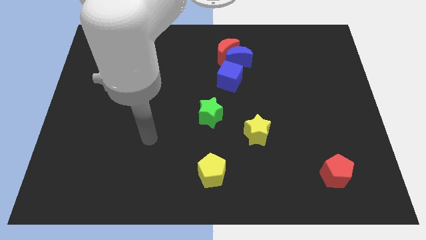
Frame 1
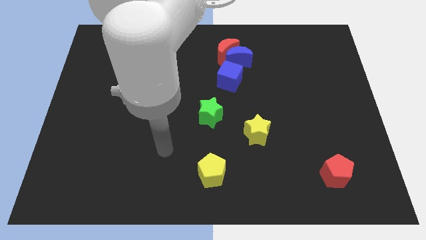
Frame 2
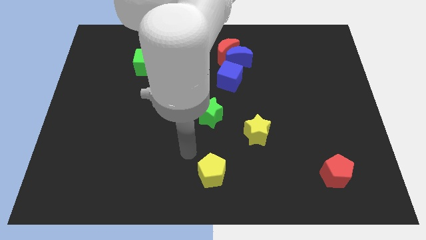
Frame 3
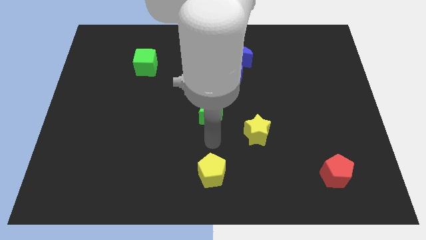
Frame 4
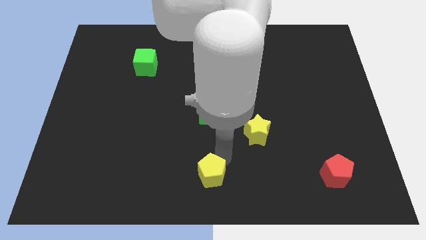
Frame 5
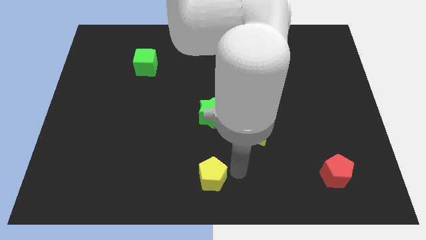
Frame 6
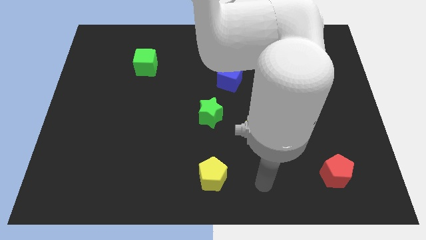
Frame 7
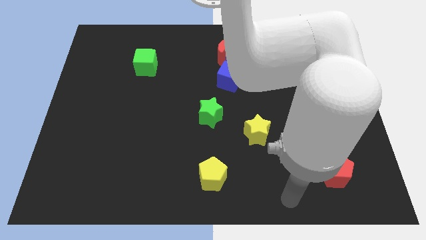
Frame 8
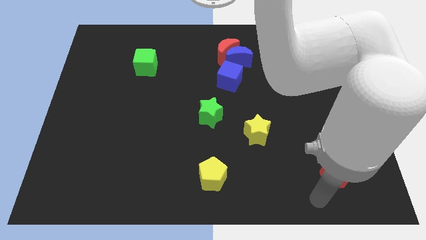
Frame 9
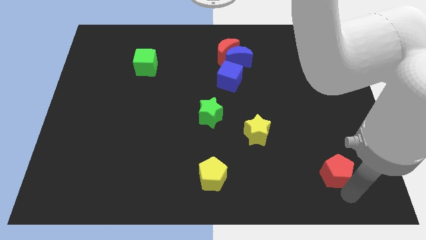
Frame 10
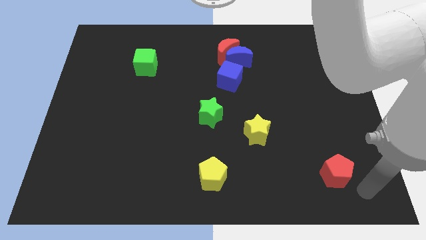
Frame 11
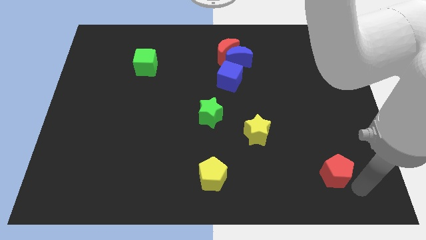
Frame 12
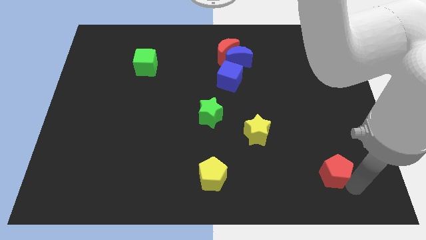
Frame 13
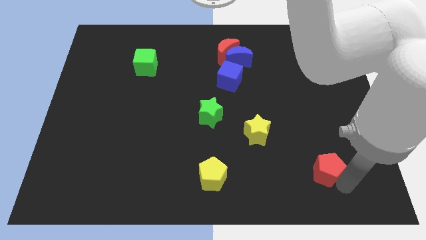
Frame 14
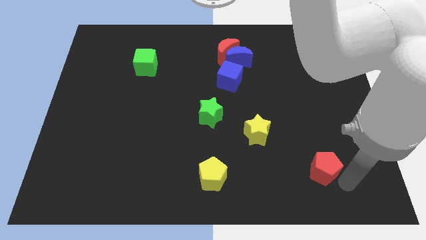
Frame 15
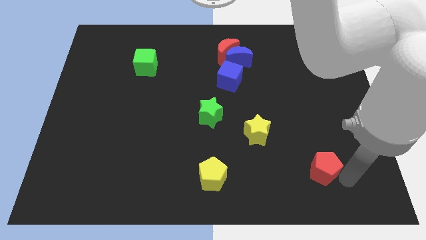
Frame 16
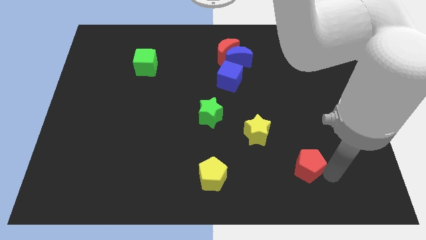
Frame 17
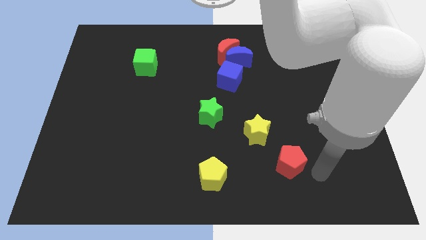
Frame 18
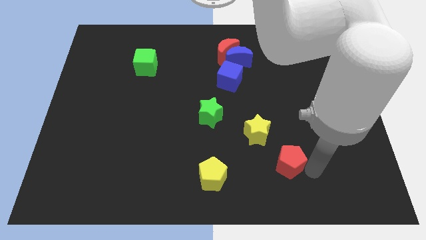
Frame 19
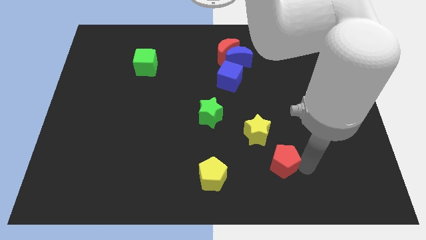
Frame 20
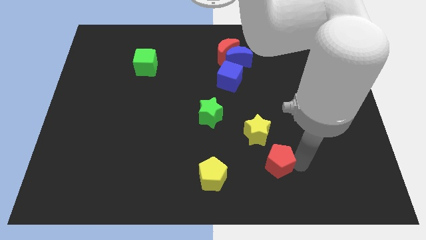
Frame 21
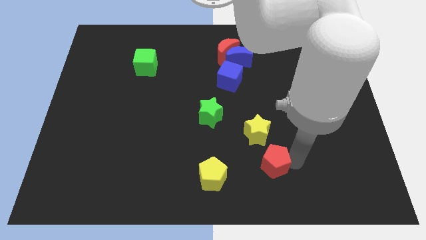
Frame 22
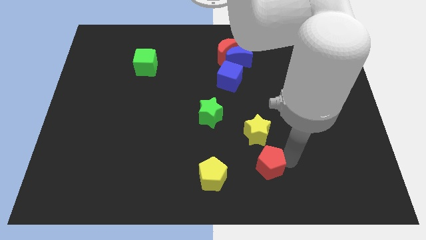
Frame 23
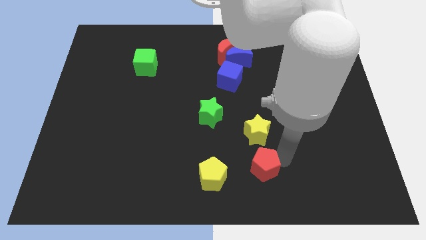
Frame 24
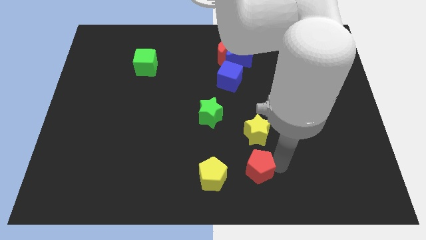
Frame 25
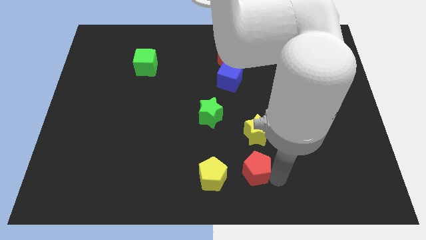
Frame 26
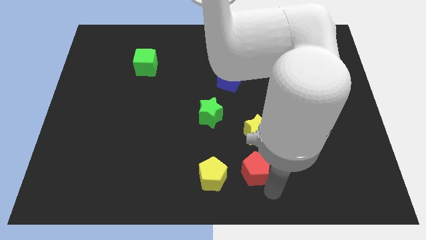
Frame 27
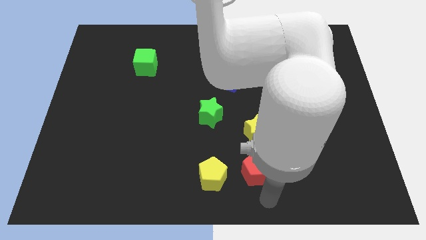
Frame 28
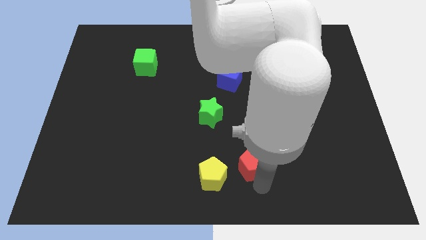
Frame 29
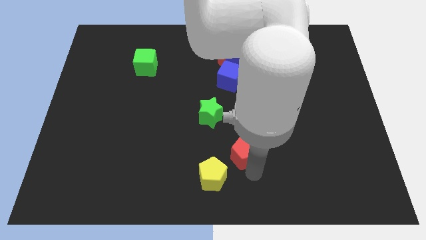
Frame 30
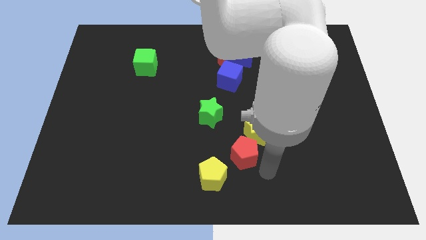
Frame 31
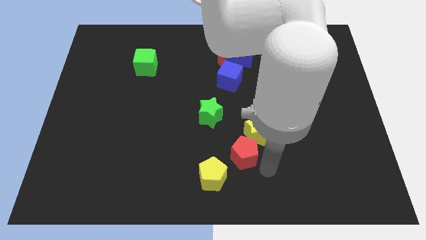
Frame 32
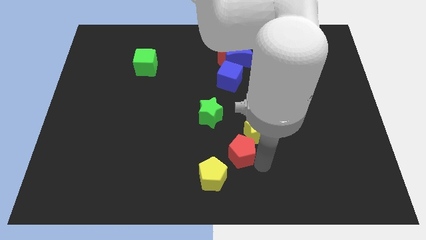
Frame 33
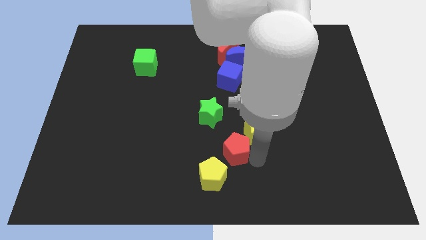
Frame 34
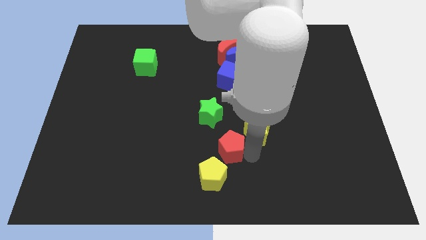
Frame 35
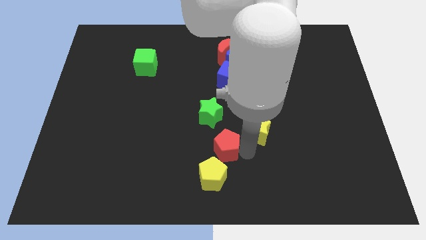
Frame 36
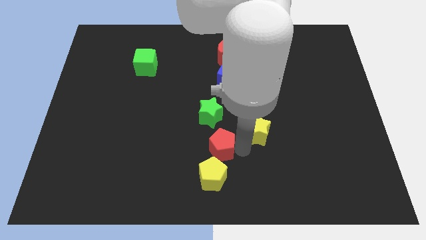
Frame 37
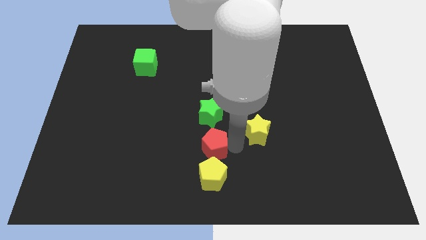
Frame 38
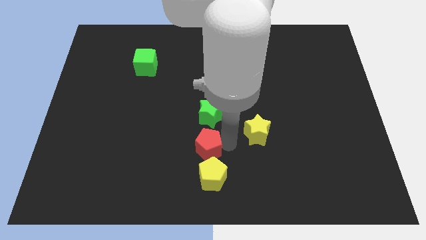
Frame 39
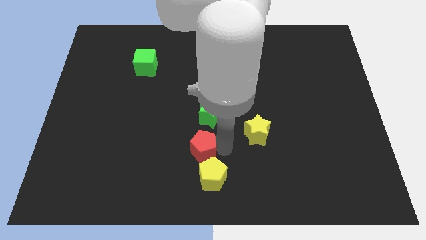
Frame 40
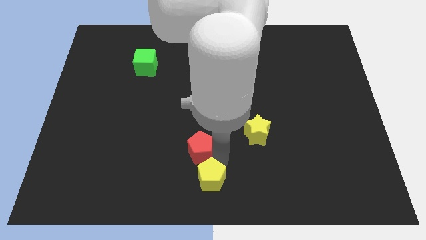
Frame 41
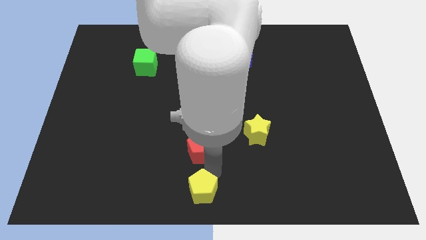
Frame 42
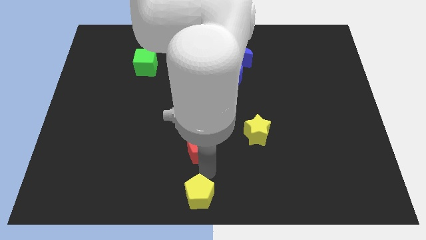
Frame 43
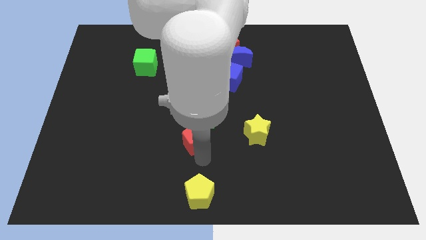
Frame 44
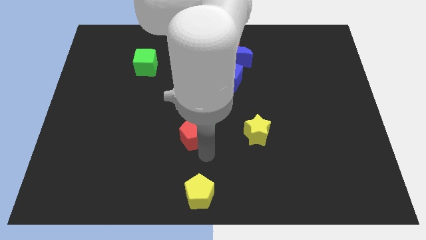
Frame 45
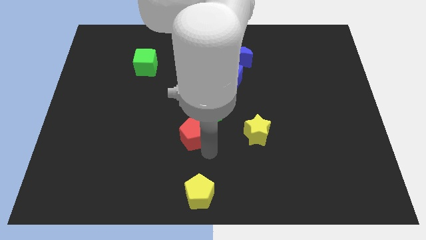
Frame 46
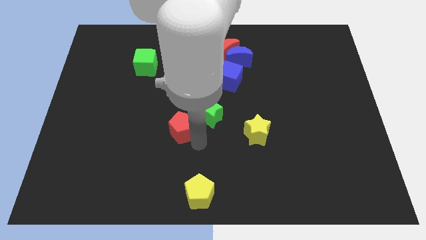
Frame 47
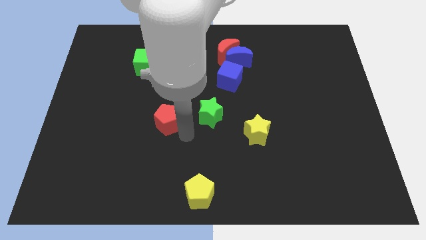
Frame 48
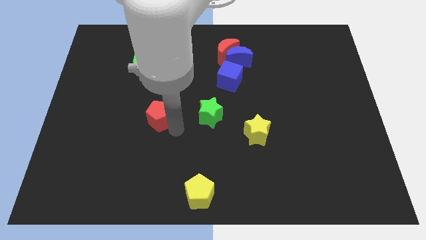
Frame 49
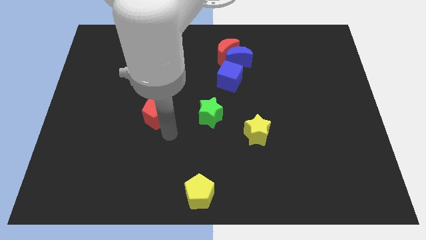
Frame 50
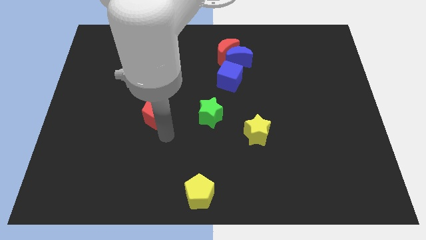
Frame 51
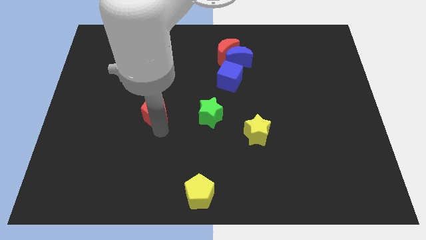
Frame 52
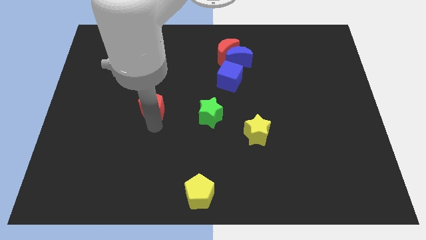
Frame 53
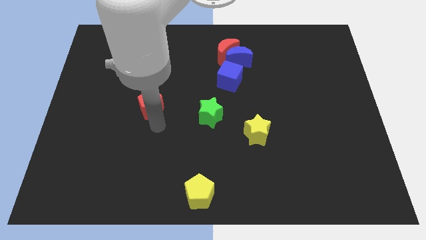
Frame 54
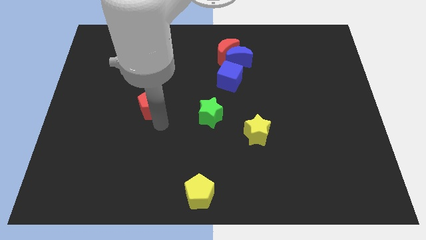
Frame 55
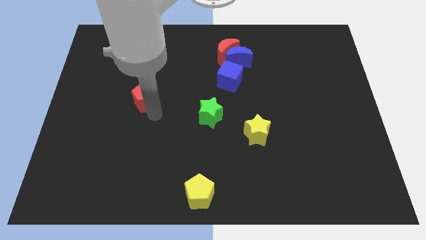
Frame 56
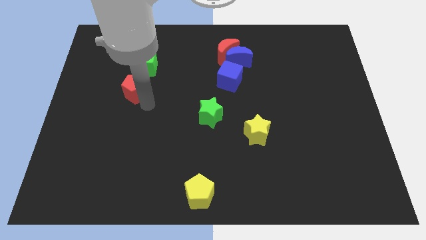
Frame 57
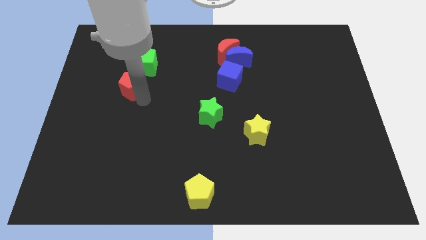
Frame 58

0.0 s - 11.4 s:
move the red pentagon diagonally down and to the left of the green cube

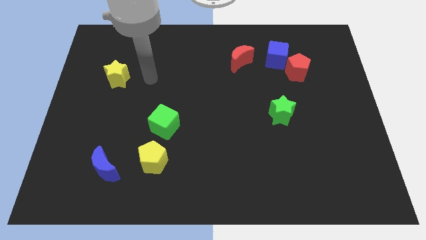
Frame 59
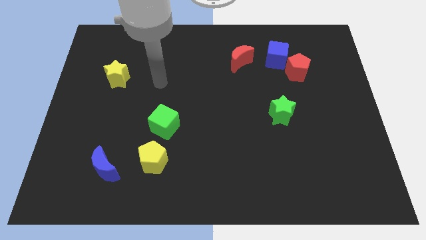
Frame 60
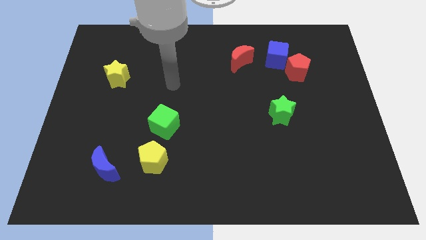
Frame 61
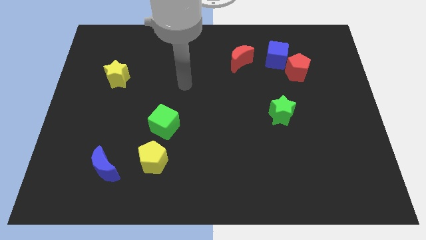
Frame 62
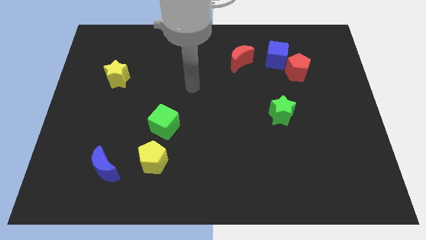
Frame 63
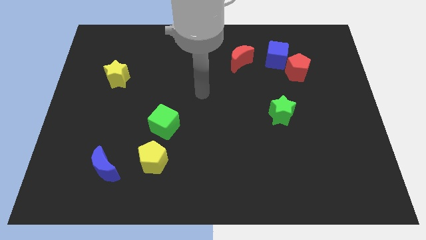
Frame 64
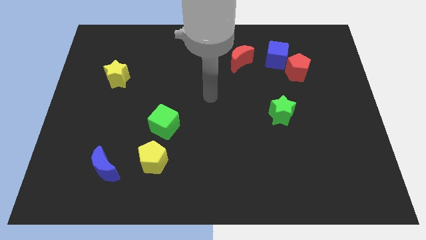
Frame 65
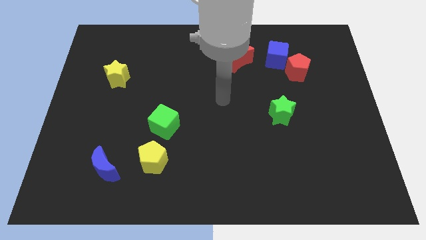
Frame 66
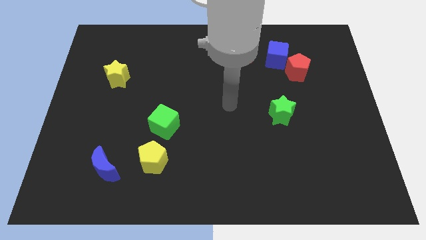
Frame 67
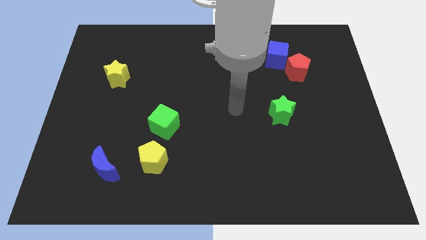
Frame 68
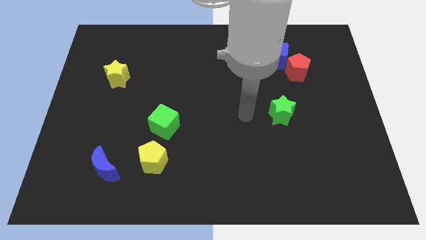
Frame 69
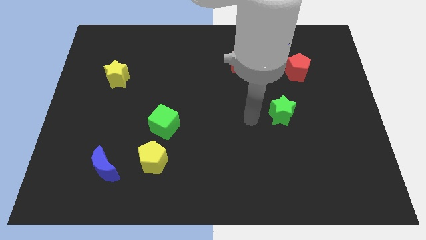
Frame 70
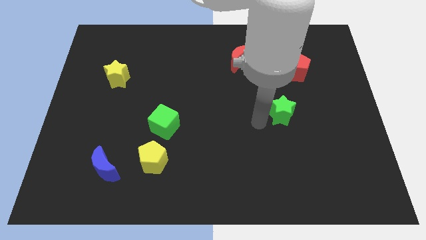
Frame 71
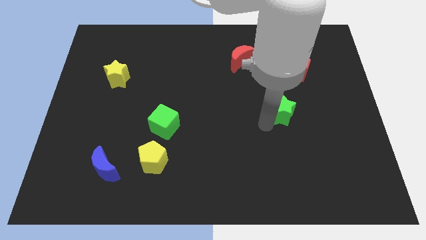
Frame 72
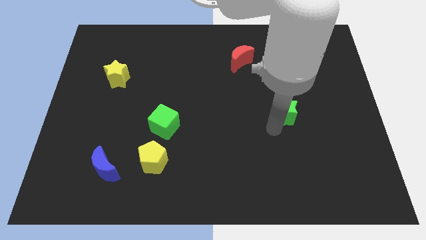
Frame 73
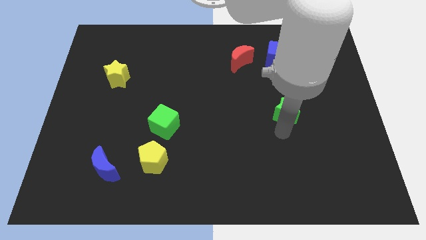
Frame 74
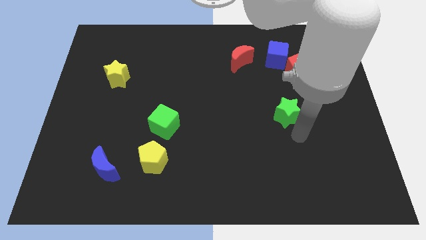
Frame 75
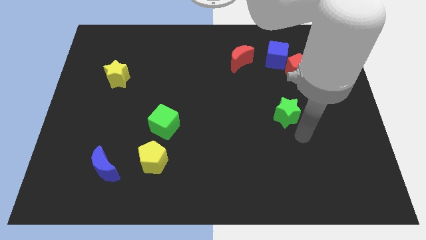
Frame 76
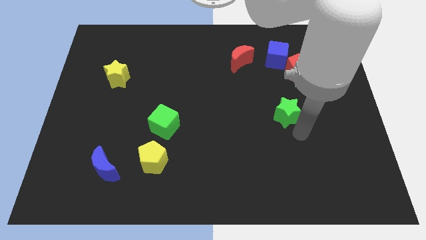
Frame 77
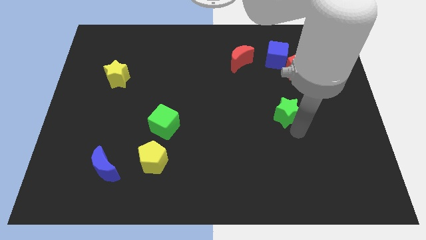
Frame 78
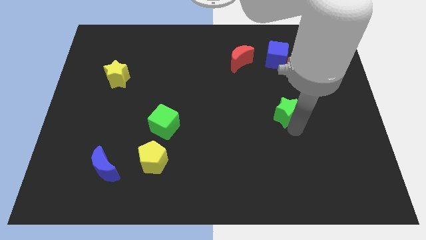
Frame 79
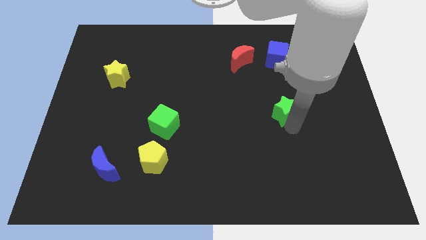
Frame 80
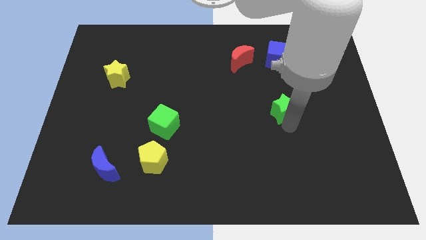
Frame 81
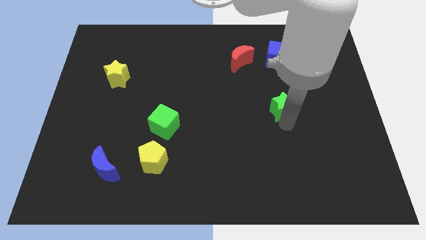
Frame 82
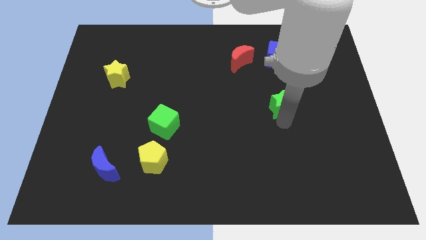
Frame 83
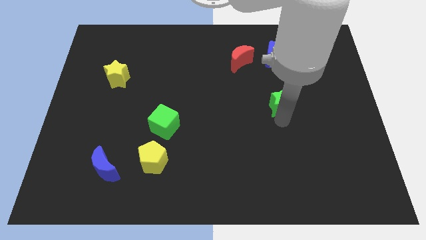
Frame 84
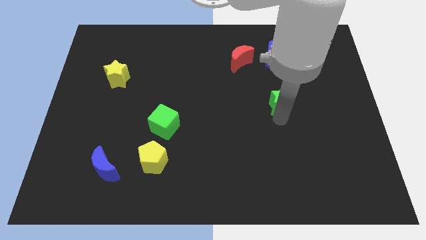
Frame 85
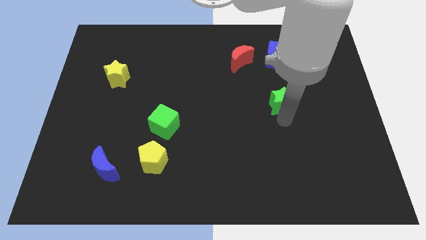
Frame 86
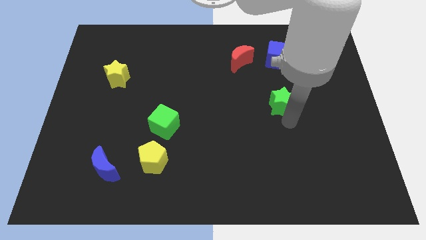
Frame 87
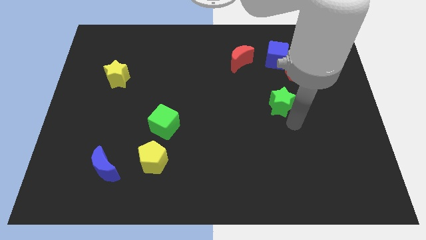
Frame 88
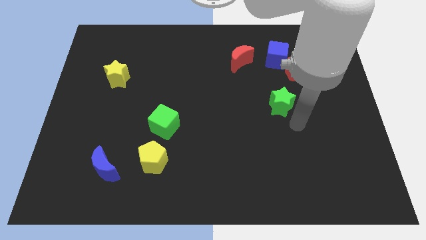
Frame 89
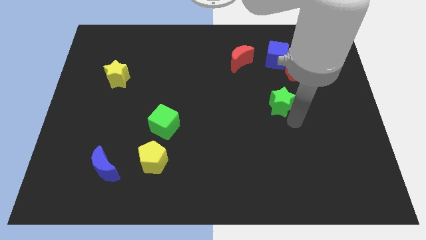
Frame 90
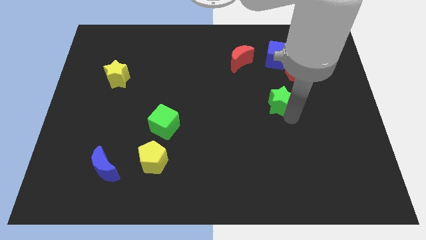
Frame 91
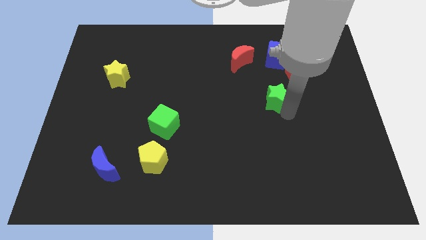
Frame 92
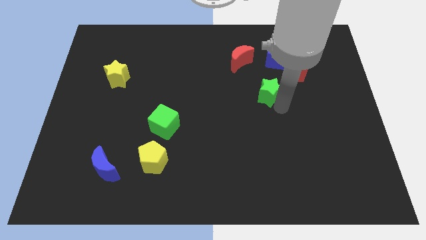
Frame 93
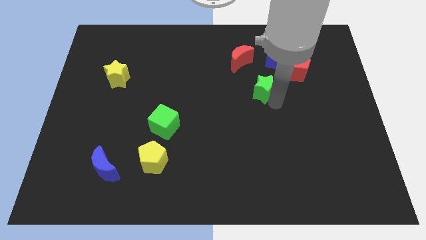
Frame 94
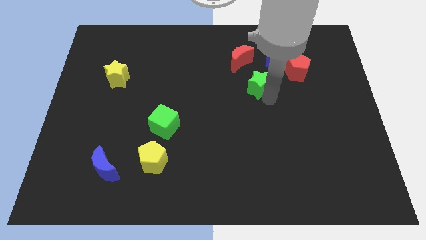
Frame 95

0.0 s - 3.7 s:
slide the green star to the bottom right of the red moon
